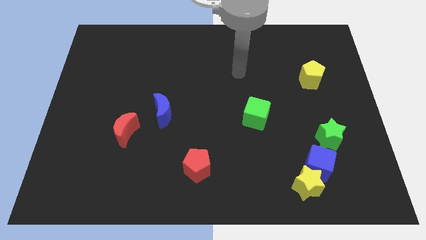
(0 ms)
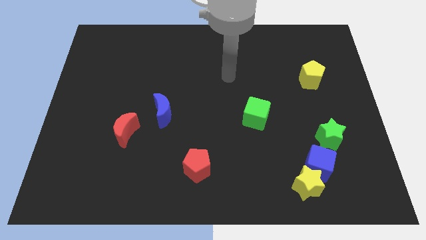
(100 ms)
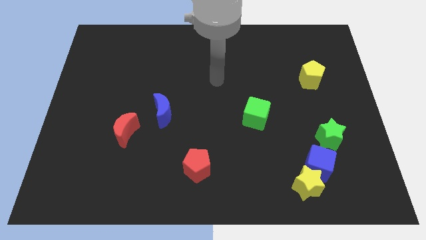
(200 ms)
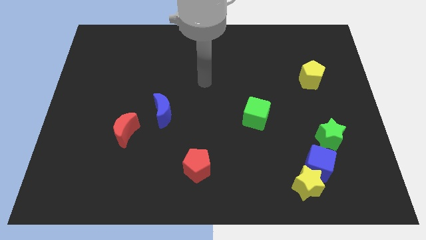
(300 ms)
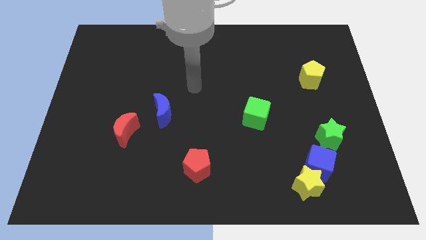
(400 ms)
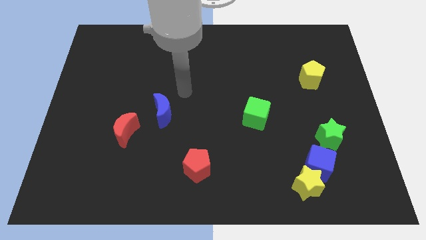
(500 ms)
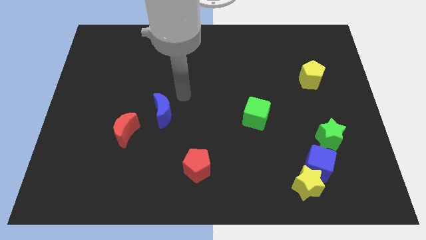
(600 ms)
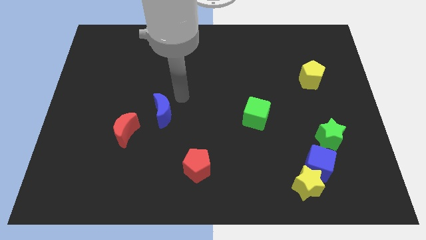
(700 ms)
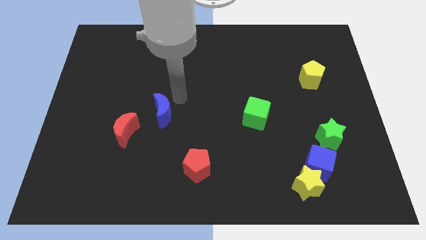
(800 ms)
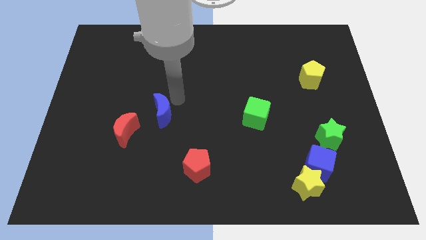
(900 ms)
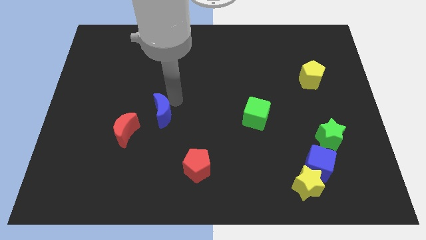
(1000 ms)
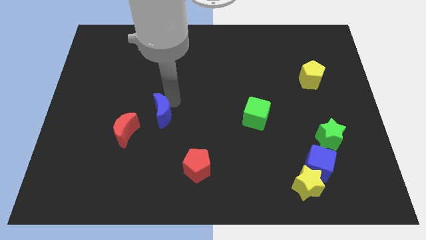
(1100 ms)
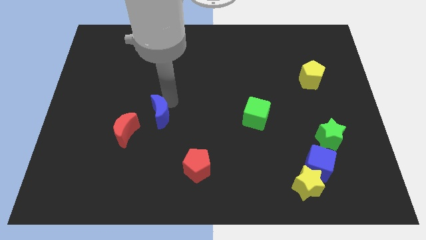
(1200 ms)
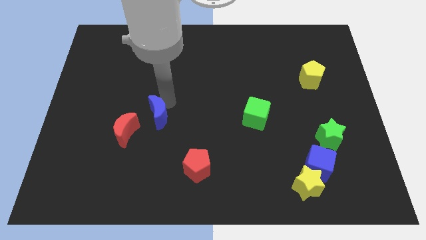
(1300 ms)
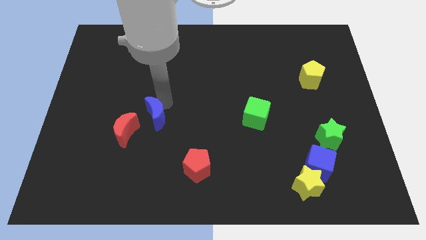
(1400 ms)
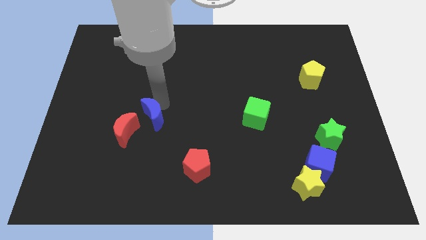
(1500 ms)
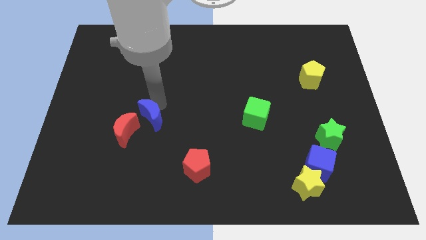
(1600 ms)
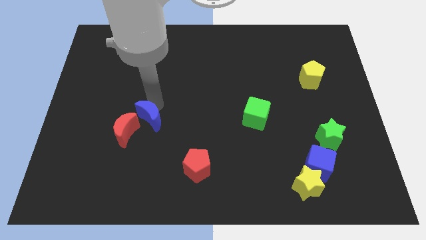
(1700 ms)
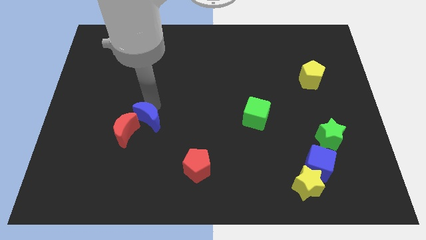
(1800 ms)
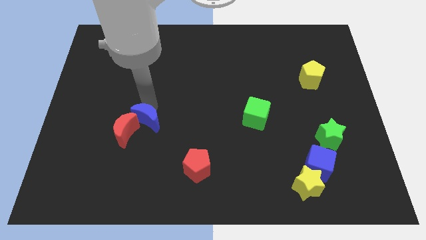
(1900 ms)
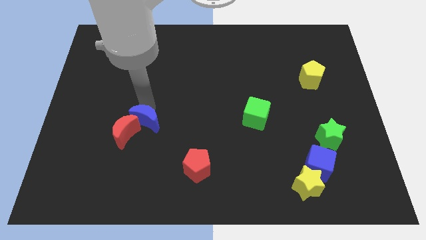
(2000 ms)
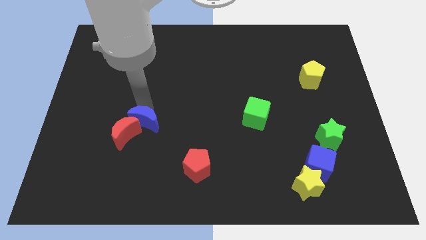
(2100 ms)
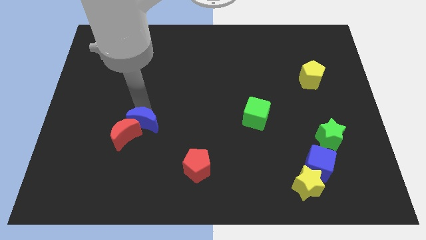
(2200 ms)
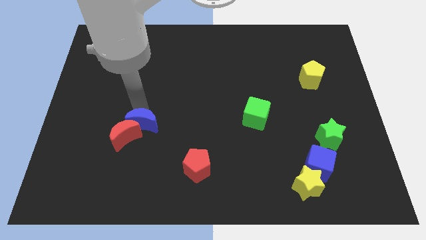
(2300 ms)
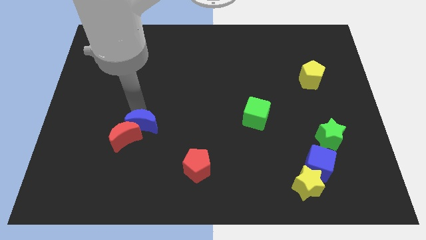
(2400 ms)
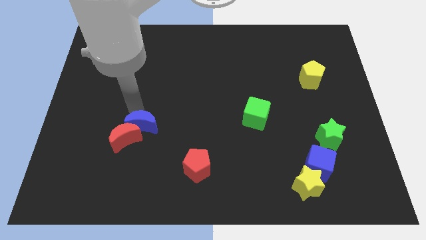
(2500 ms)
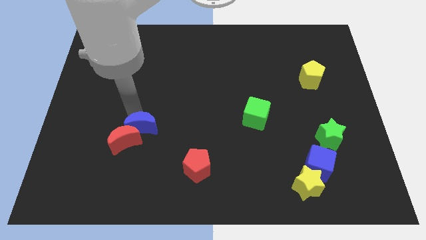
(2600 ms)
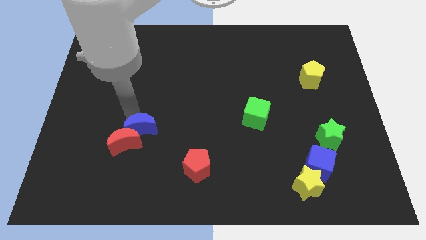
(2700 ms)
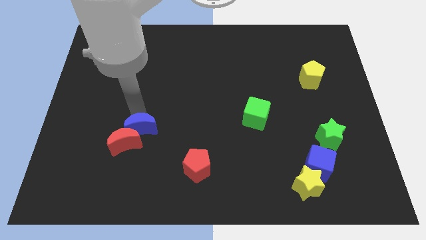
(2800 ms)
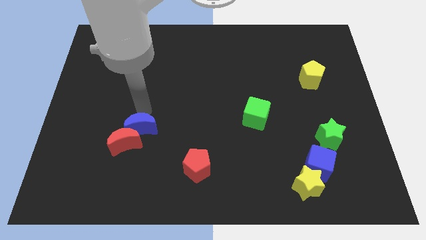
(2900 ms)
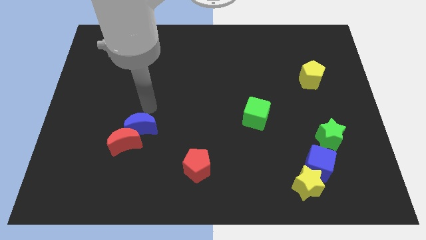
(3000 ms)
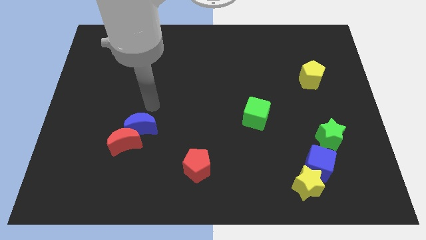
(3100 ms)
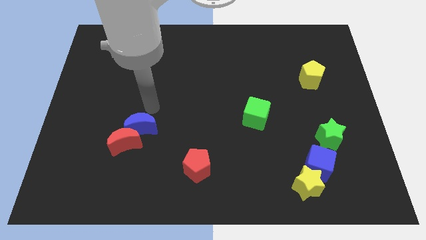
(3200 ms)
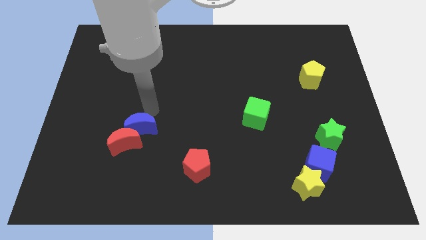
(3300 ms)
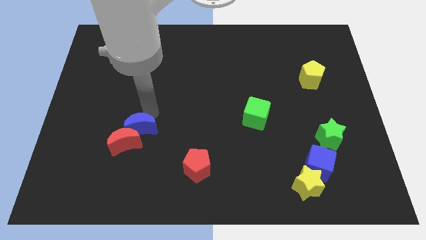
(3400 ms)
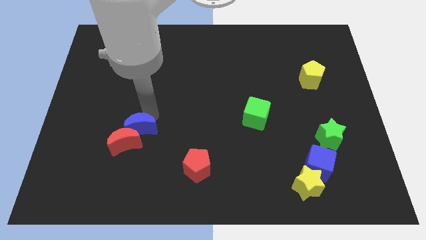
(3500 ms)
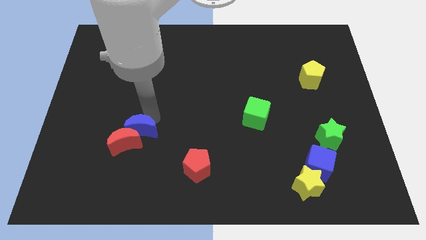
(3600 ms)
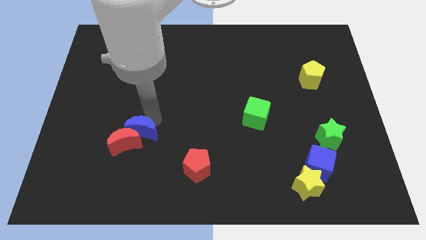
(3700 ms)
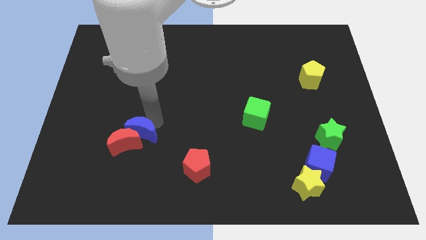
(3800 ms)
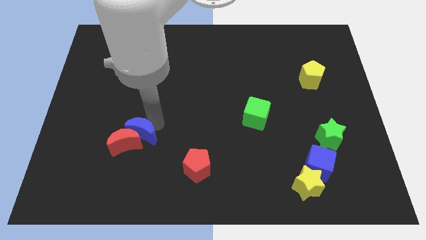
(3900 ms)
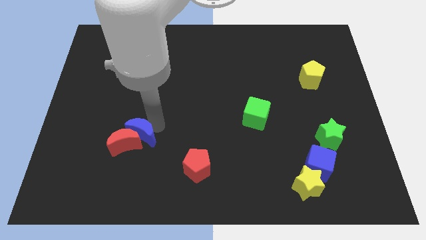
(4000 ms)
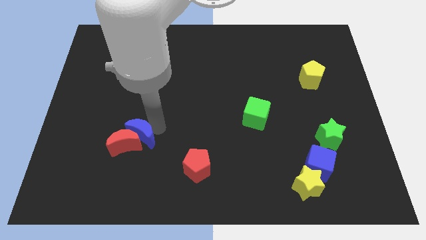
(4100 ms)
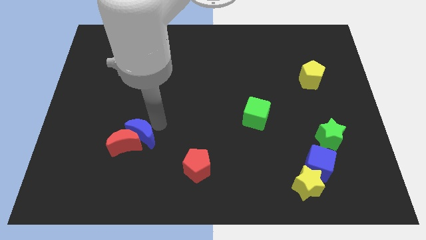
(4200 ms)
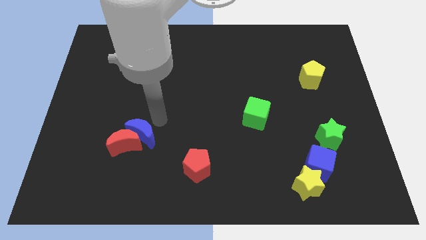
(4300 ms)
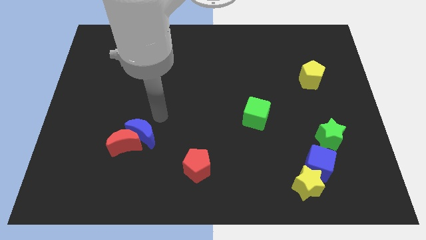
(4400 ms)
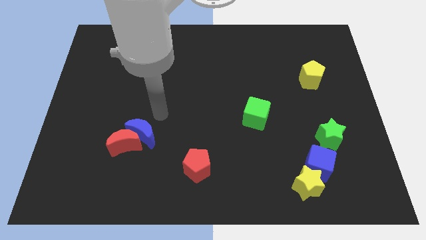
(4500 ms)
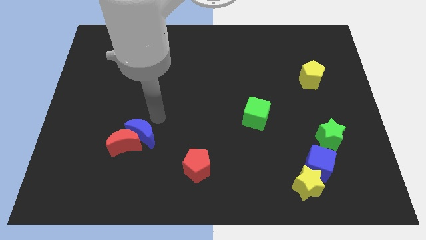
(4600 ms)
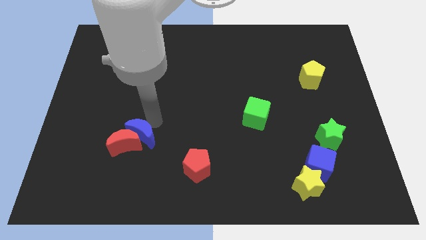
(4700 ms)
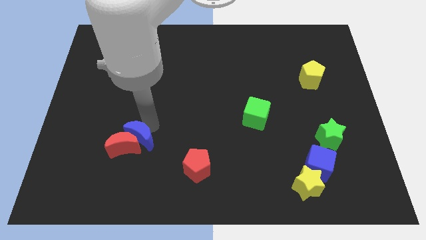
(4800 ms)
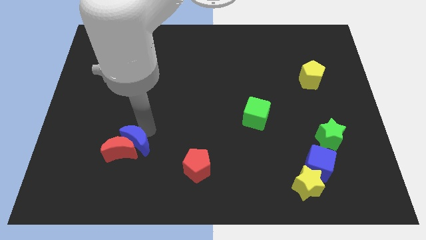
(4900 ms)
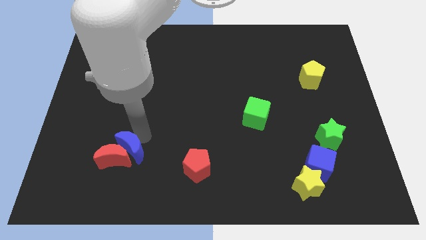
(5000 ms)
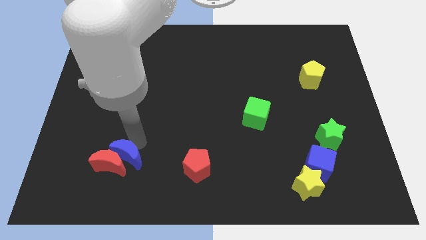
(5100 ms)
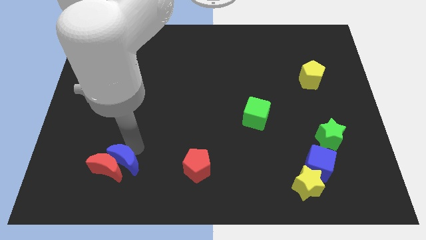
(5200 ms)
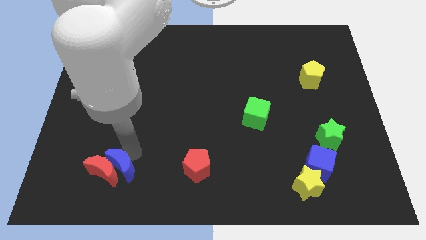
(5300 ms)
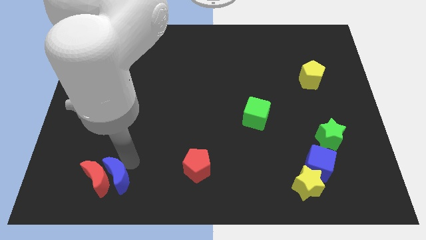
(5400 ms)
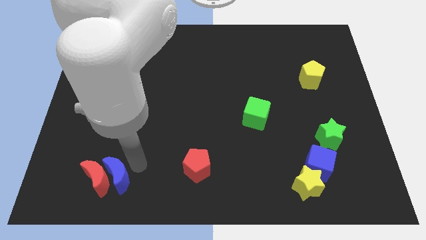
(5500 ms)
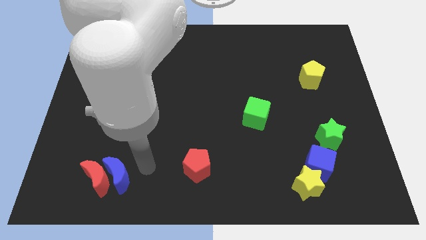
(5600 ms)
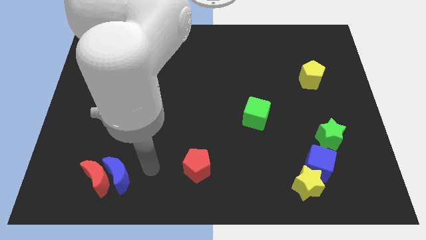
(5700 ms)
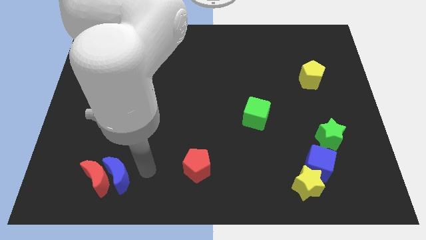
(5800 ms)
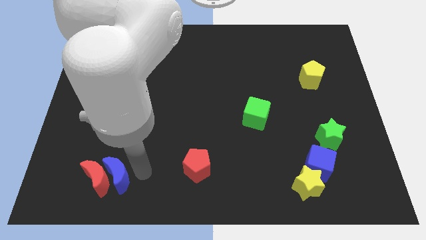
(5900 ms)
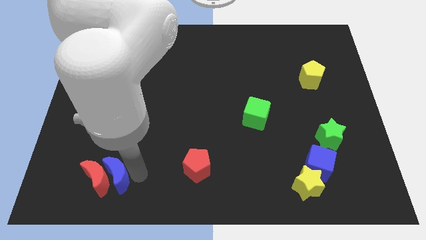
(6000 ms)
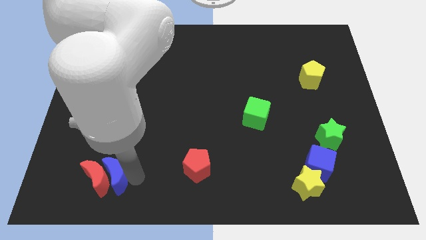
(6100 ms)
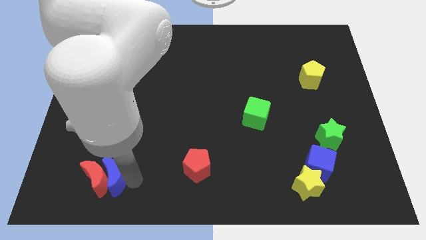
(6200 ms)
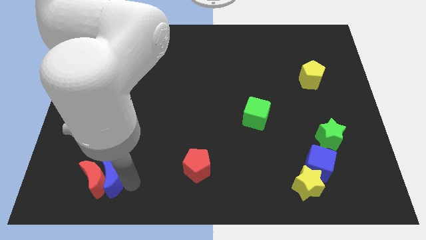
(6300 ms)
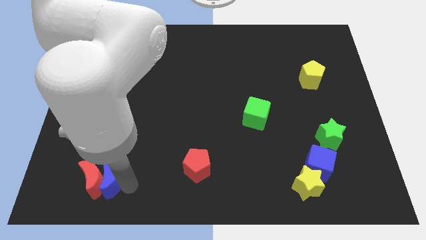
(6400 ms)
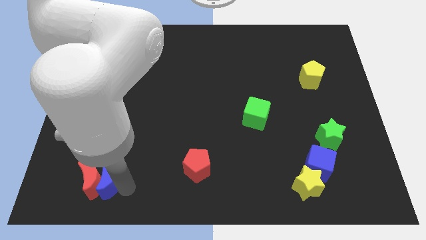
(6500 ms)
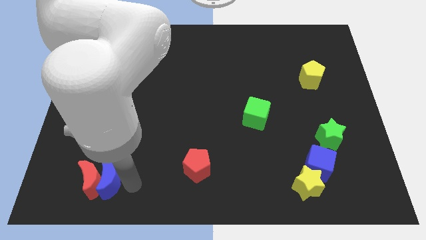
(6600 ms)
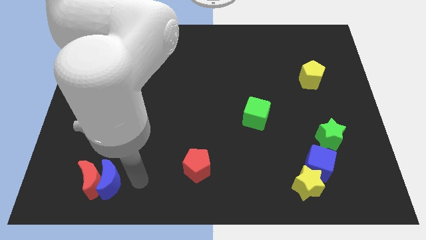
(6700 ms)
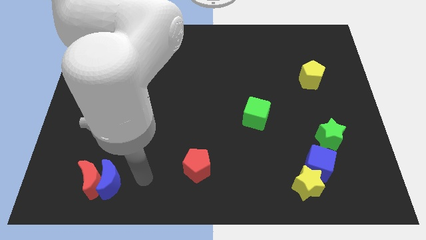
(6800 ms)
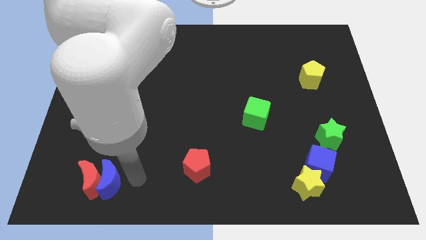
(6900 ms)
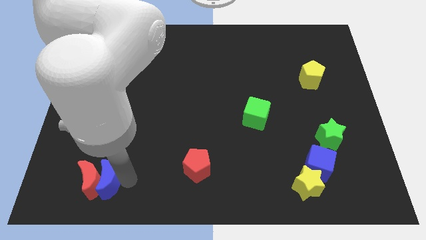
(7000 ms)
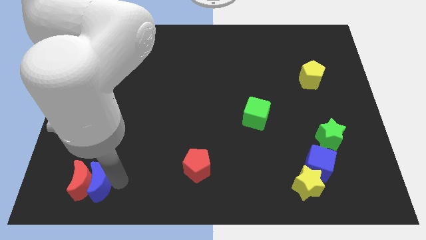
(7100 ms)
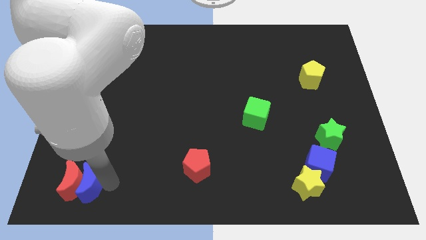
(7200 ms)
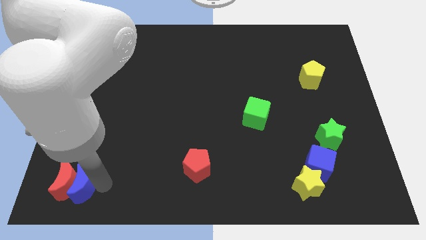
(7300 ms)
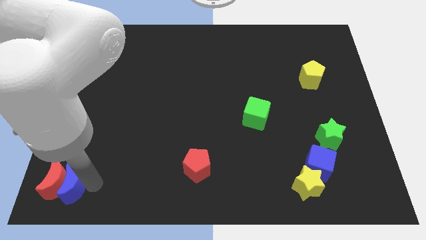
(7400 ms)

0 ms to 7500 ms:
slide the blue moon to the bottom left of the board
